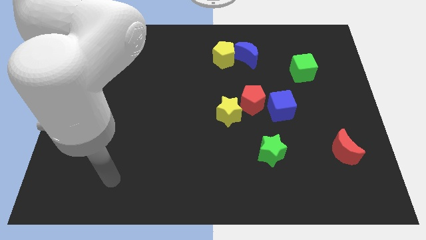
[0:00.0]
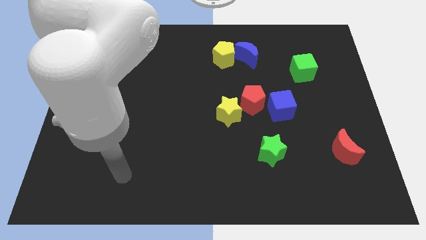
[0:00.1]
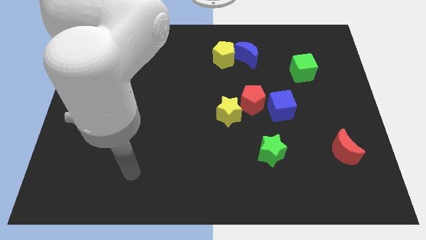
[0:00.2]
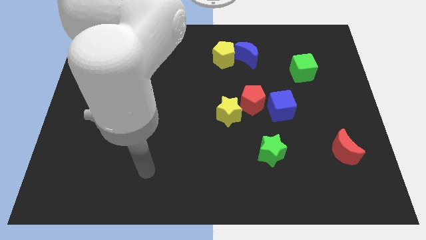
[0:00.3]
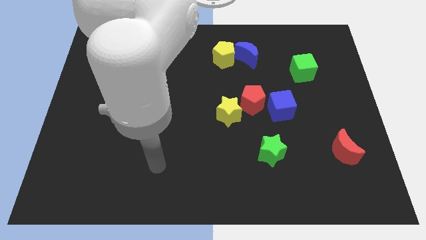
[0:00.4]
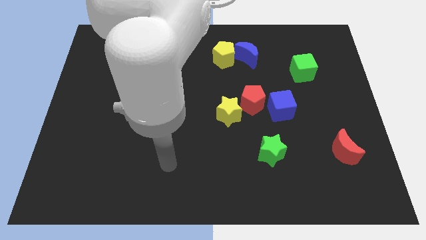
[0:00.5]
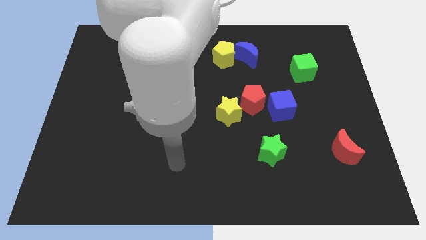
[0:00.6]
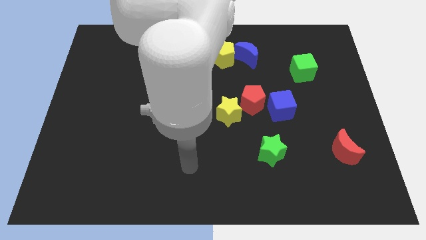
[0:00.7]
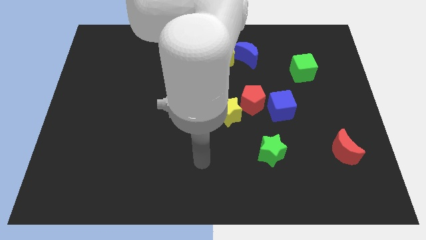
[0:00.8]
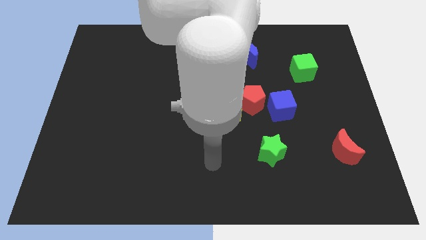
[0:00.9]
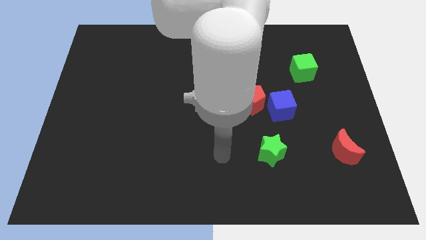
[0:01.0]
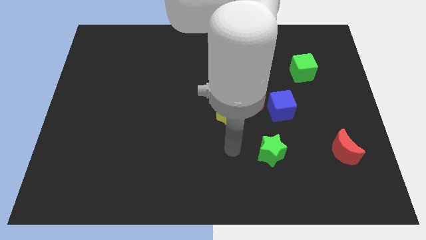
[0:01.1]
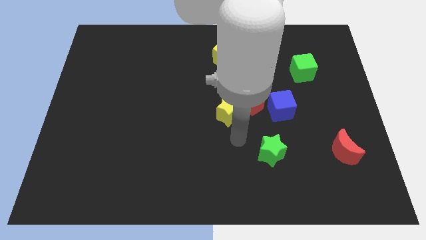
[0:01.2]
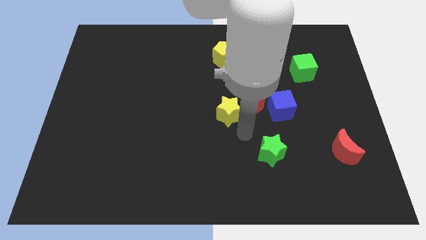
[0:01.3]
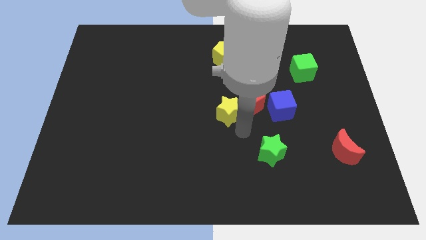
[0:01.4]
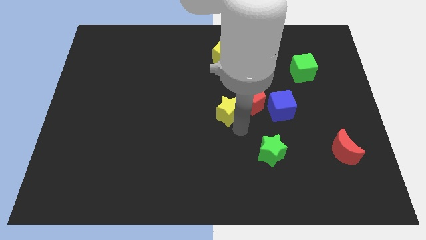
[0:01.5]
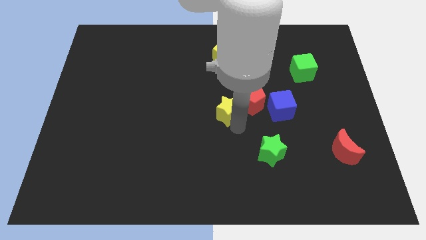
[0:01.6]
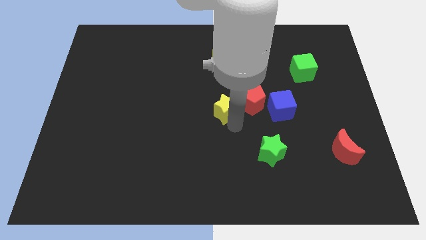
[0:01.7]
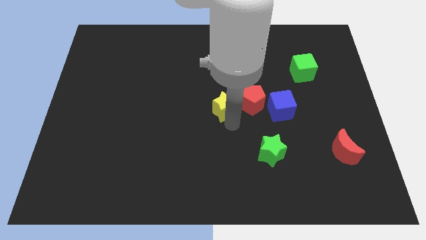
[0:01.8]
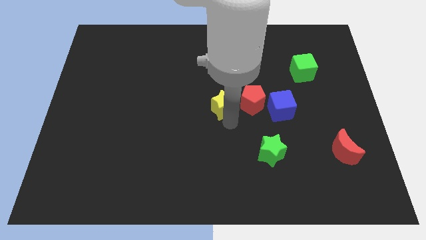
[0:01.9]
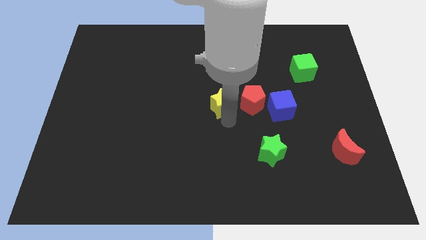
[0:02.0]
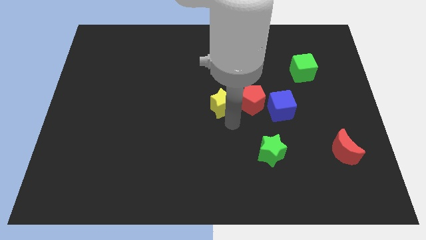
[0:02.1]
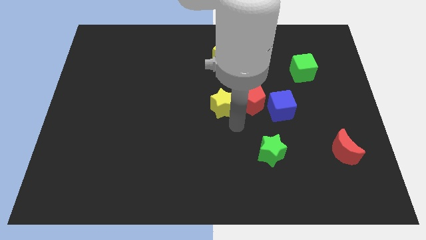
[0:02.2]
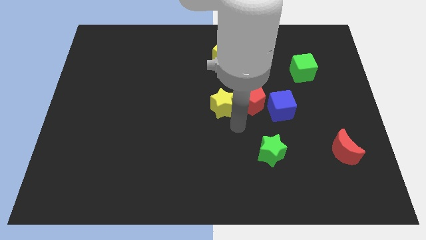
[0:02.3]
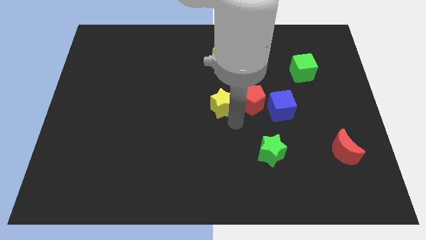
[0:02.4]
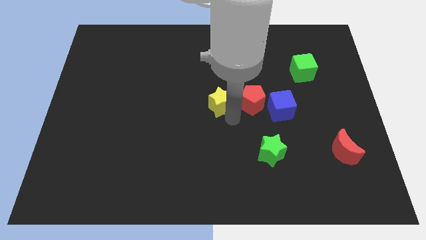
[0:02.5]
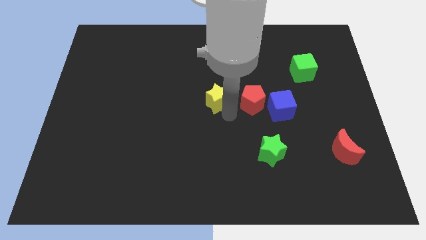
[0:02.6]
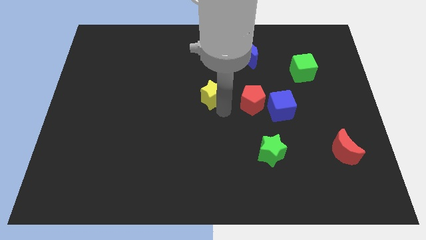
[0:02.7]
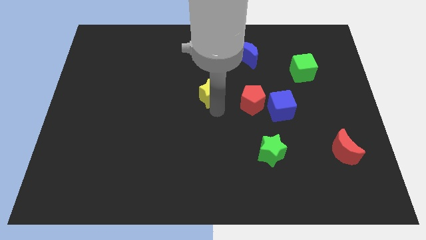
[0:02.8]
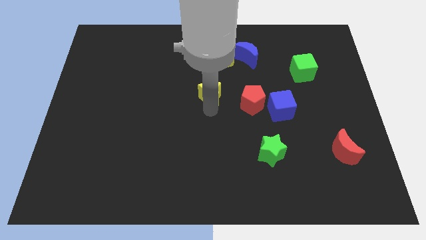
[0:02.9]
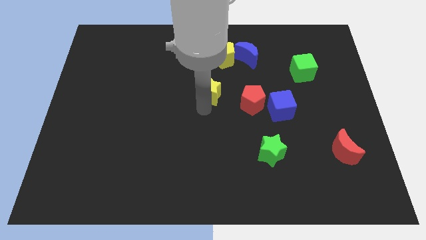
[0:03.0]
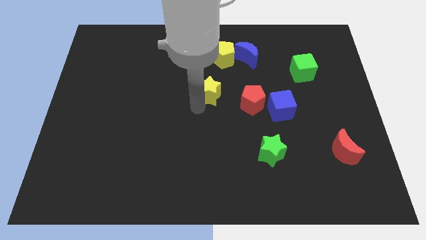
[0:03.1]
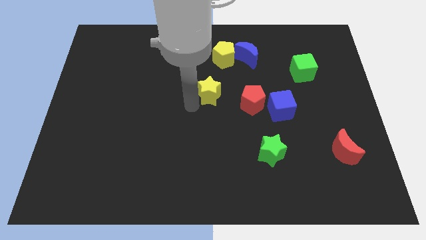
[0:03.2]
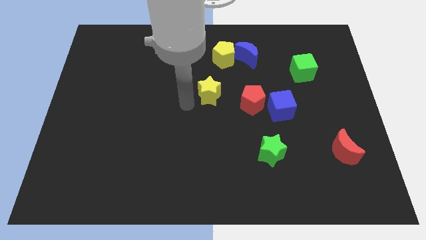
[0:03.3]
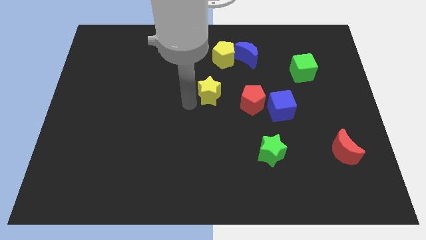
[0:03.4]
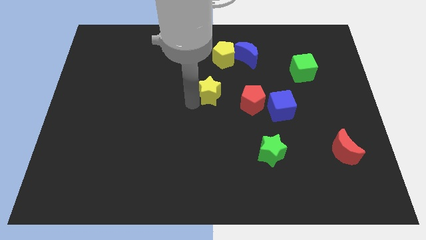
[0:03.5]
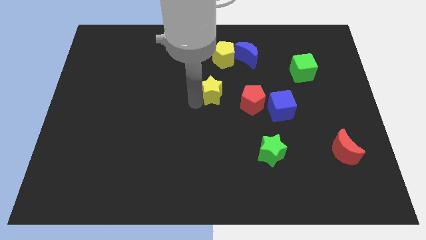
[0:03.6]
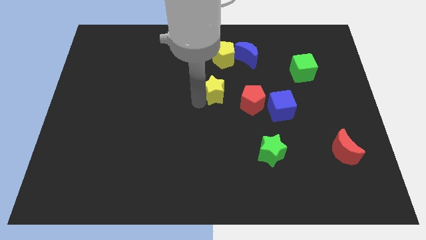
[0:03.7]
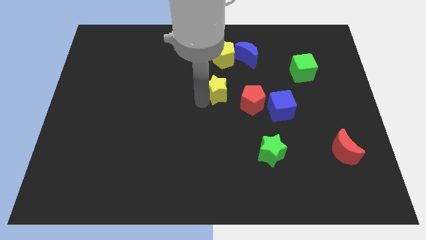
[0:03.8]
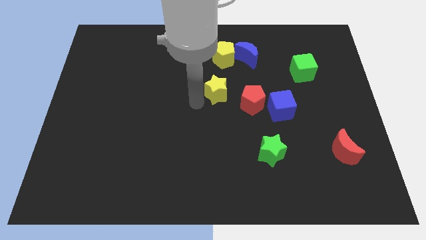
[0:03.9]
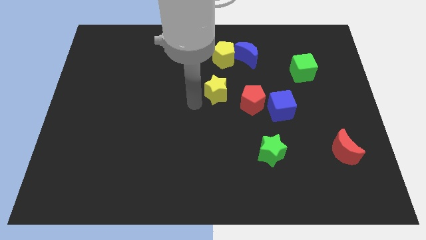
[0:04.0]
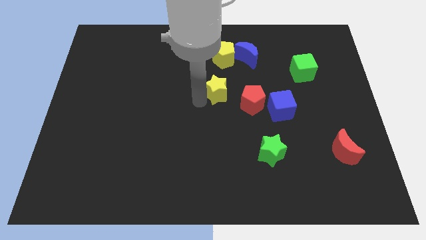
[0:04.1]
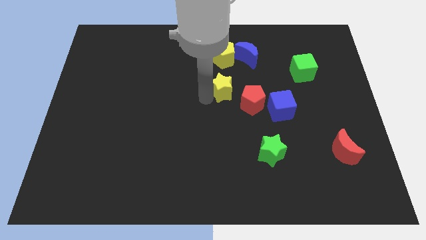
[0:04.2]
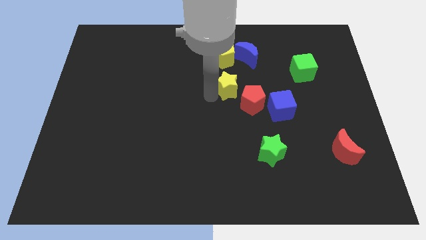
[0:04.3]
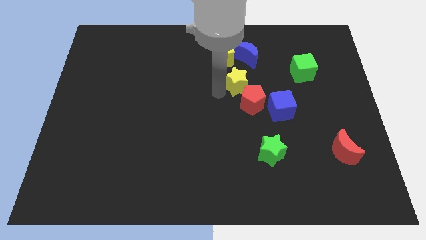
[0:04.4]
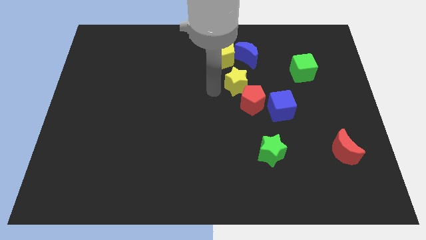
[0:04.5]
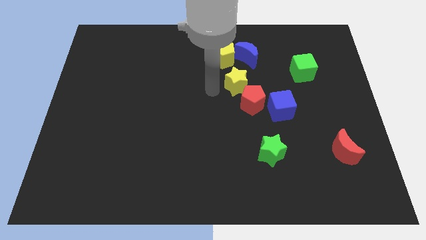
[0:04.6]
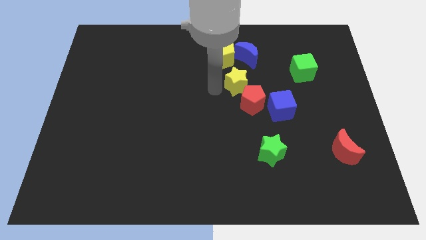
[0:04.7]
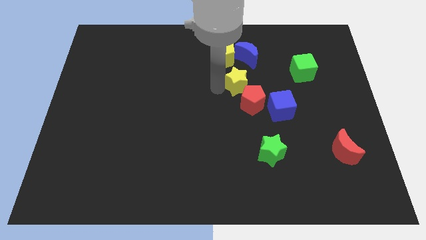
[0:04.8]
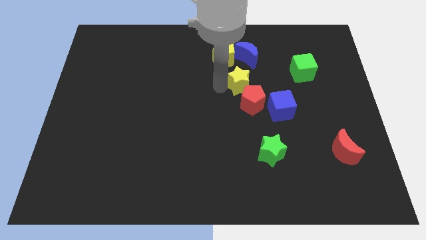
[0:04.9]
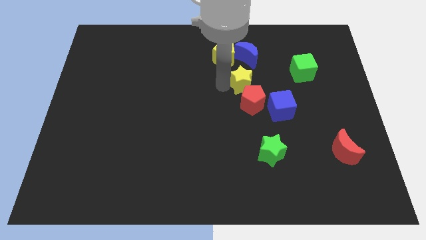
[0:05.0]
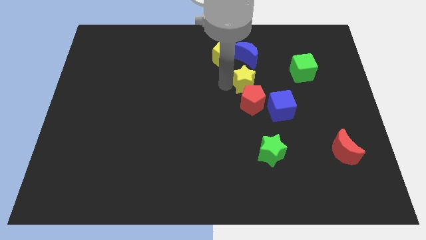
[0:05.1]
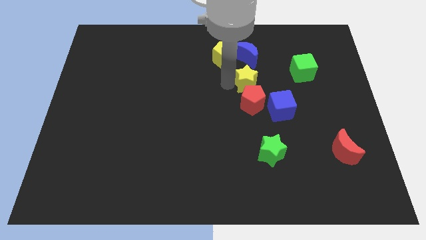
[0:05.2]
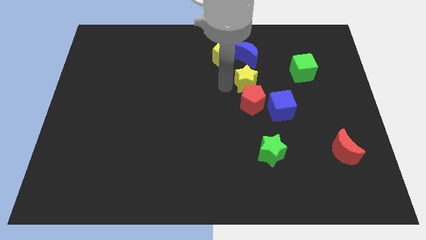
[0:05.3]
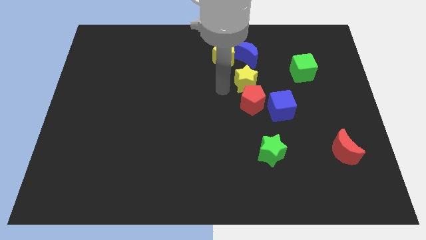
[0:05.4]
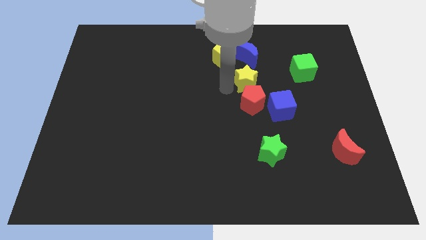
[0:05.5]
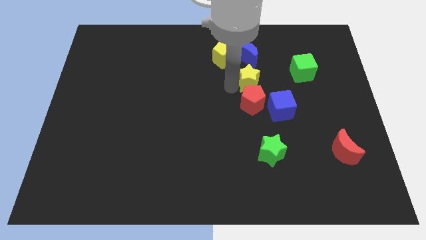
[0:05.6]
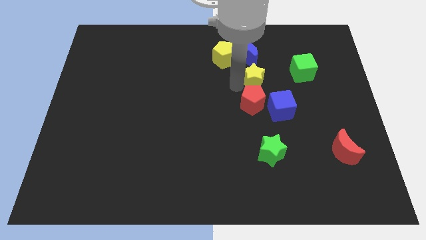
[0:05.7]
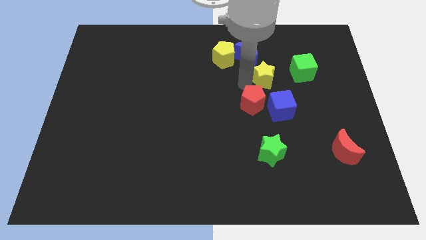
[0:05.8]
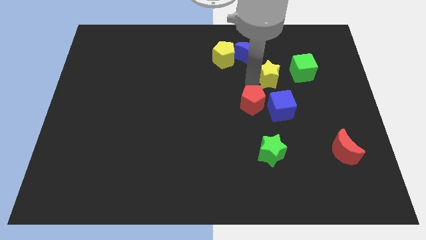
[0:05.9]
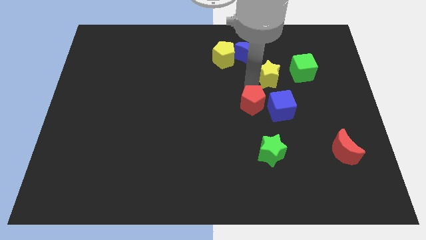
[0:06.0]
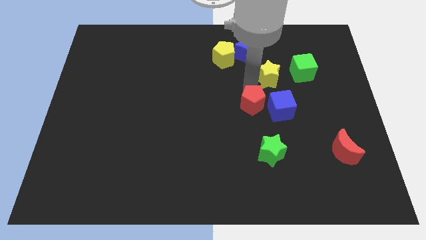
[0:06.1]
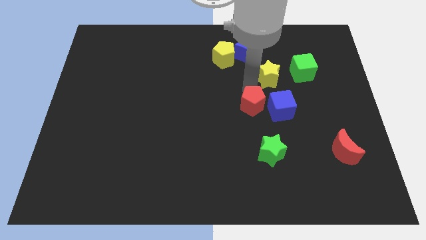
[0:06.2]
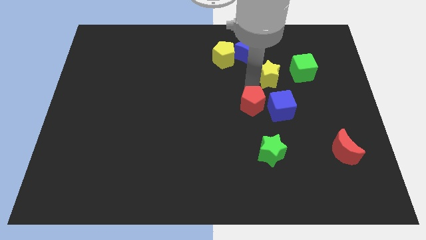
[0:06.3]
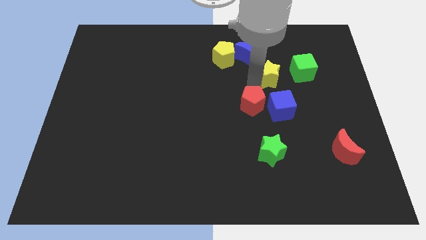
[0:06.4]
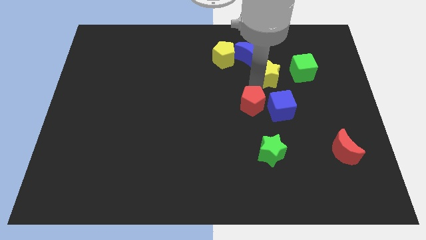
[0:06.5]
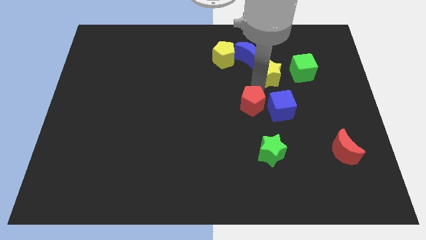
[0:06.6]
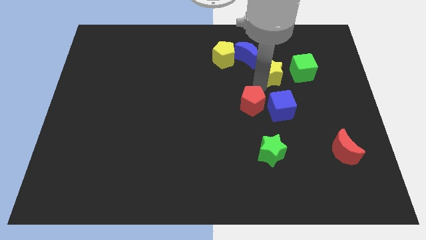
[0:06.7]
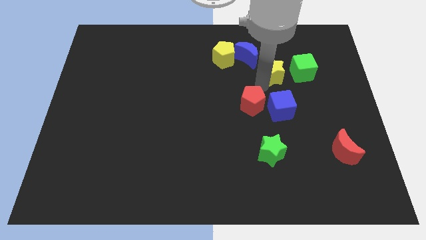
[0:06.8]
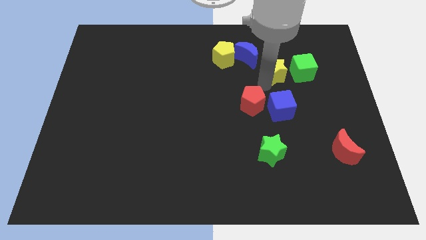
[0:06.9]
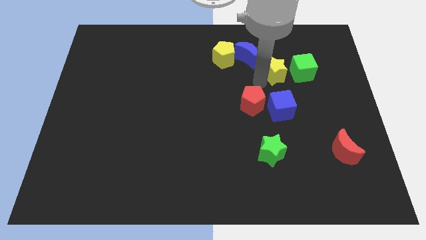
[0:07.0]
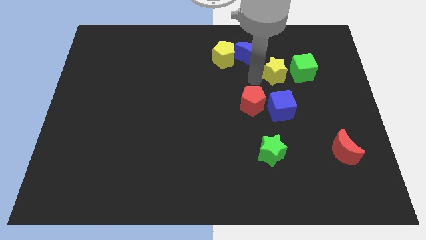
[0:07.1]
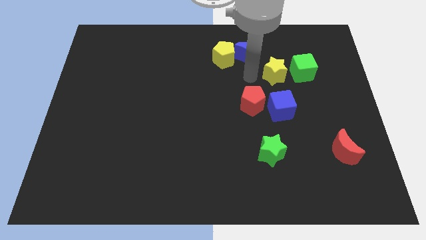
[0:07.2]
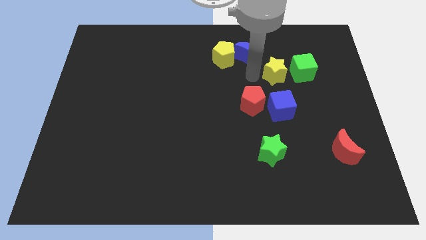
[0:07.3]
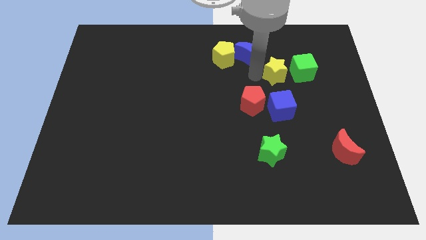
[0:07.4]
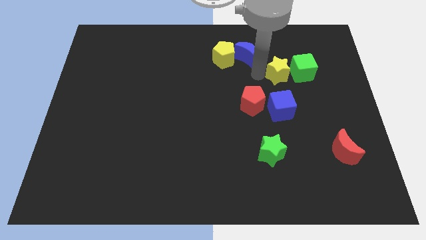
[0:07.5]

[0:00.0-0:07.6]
move the yellow star towards the green cube
